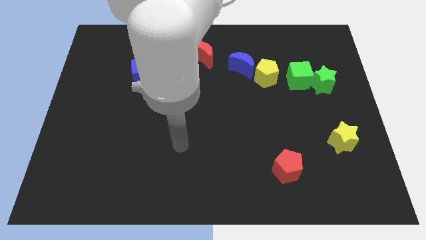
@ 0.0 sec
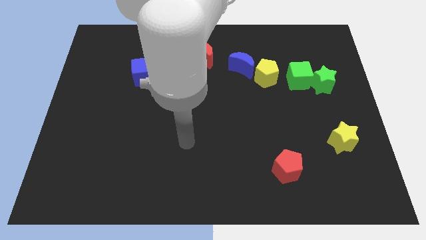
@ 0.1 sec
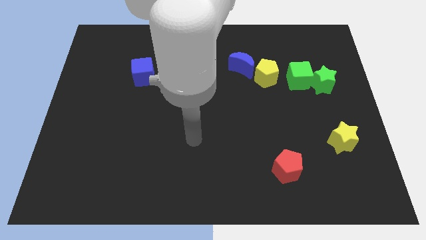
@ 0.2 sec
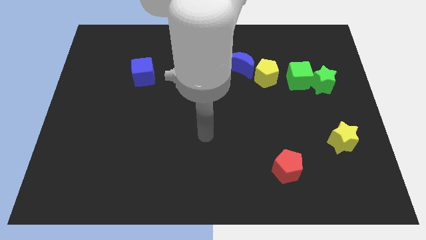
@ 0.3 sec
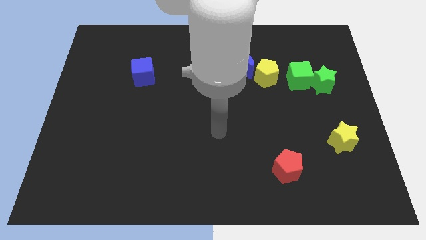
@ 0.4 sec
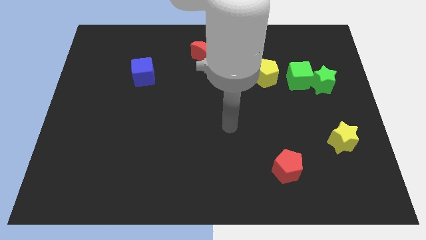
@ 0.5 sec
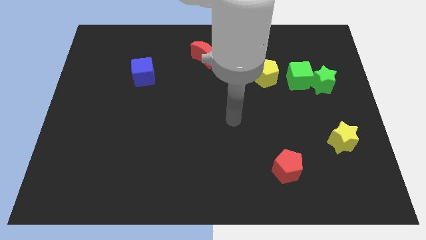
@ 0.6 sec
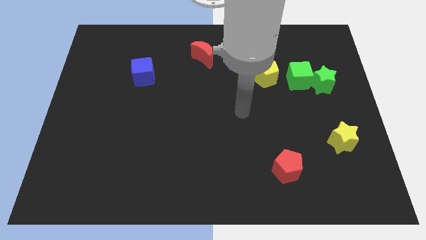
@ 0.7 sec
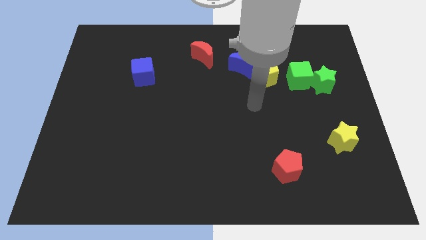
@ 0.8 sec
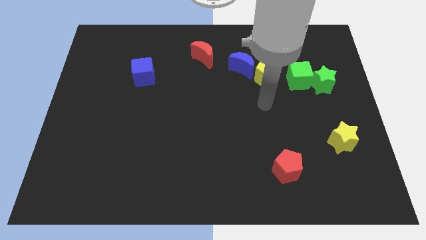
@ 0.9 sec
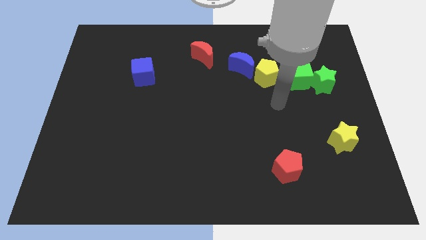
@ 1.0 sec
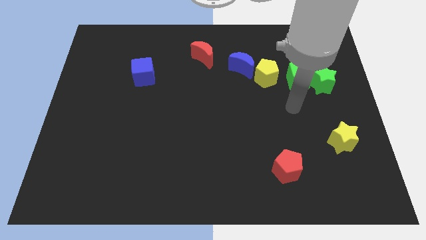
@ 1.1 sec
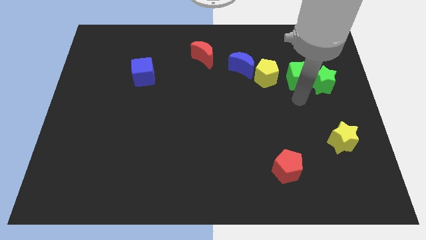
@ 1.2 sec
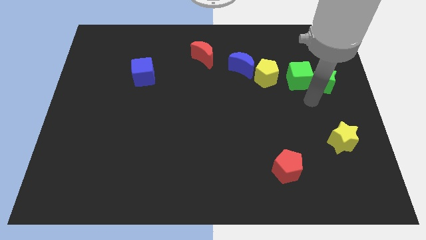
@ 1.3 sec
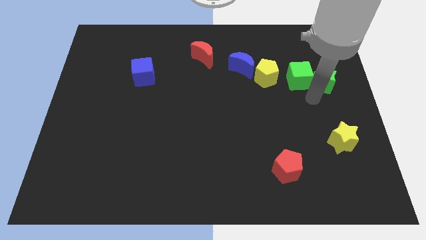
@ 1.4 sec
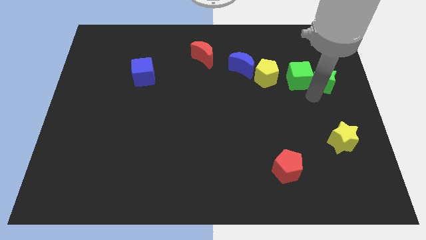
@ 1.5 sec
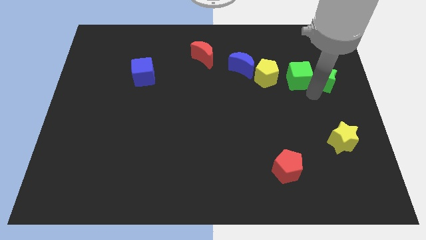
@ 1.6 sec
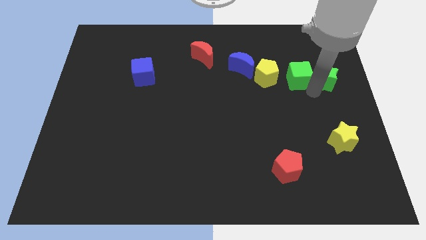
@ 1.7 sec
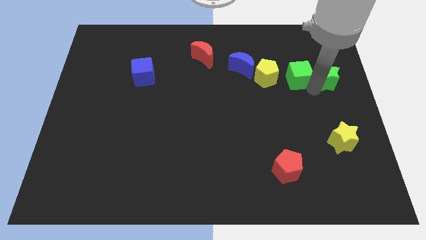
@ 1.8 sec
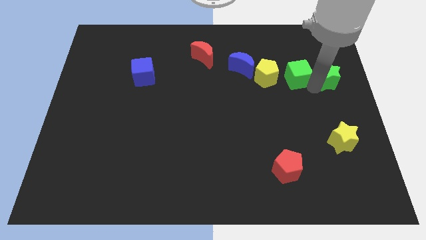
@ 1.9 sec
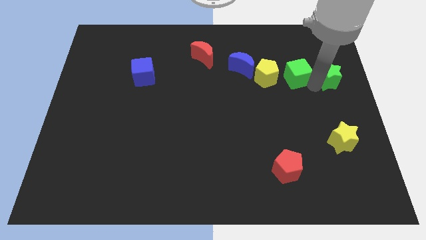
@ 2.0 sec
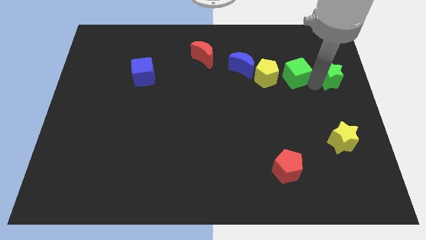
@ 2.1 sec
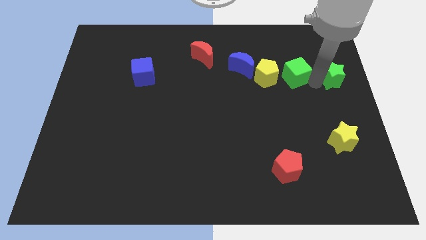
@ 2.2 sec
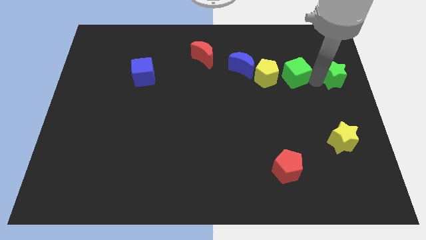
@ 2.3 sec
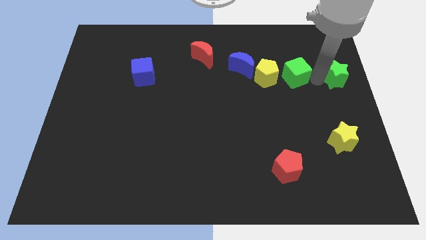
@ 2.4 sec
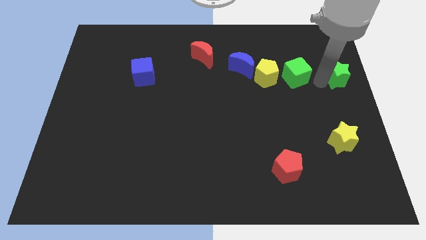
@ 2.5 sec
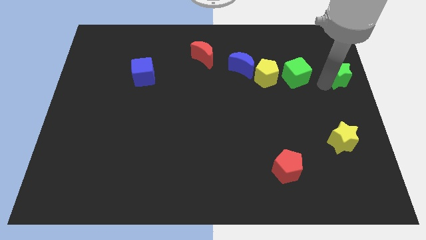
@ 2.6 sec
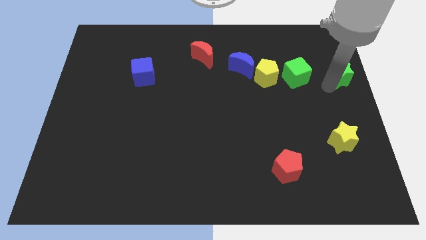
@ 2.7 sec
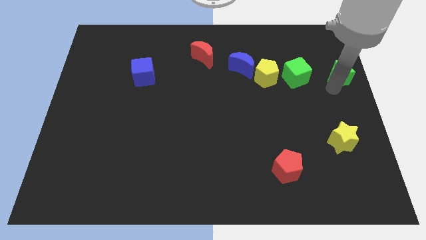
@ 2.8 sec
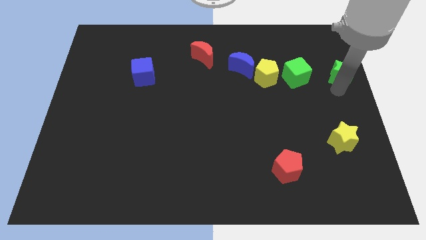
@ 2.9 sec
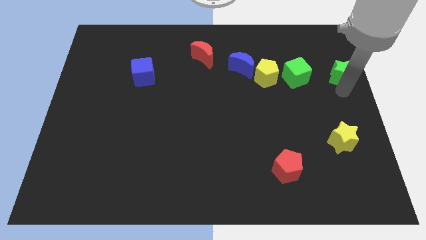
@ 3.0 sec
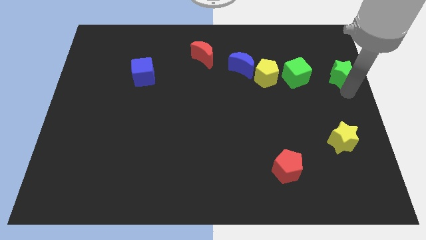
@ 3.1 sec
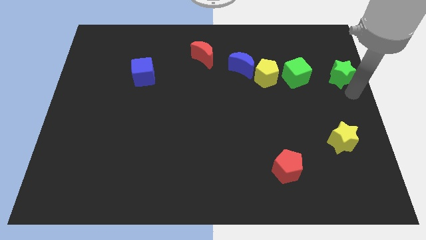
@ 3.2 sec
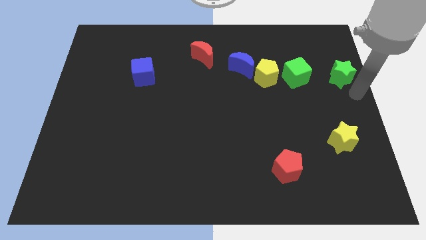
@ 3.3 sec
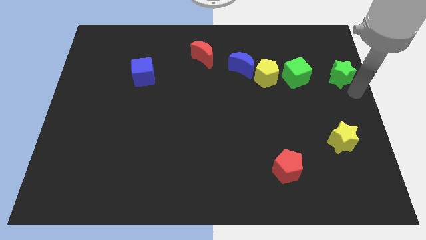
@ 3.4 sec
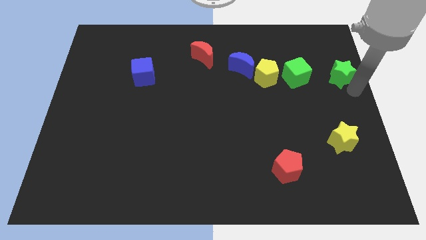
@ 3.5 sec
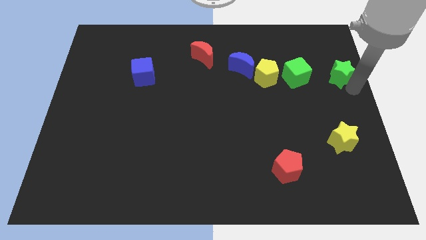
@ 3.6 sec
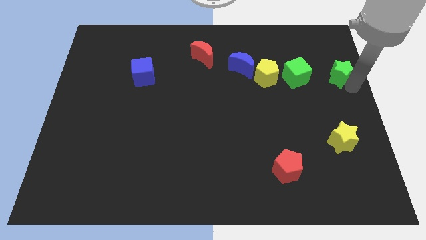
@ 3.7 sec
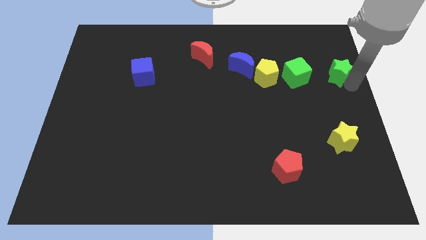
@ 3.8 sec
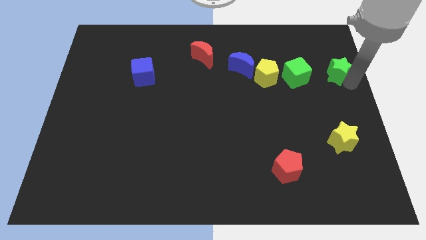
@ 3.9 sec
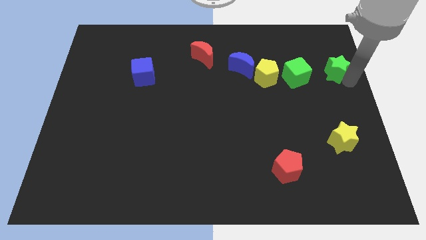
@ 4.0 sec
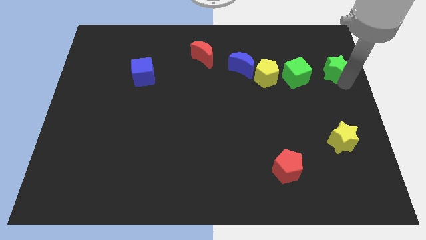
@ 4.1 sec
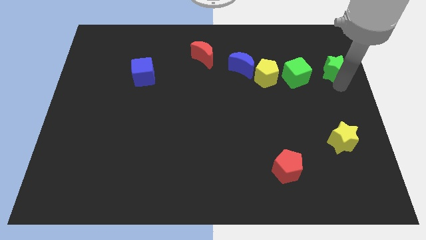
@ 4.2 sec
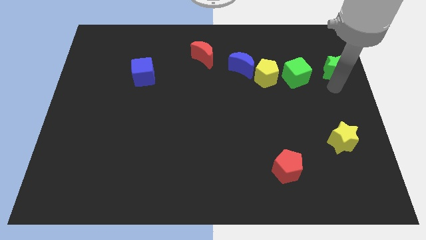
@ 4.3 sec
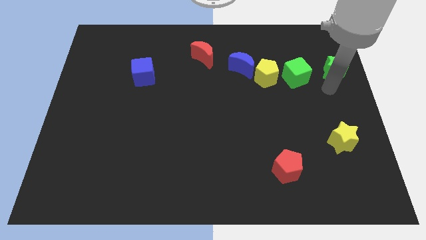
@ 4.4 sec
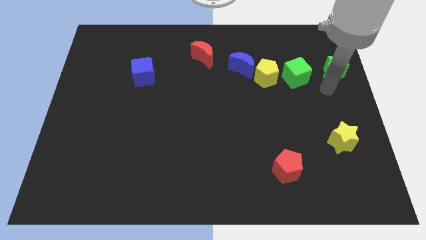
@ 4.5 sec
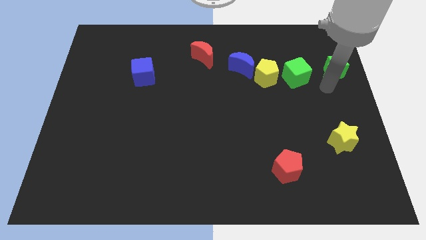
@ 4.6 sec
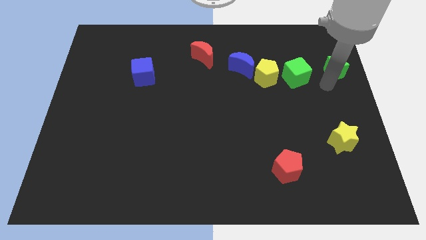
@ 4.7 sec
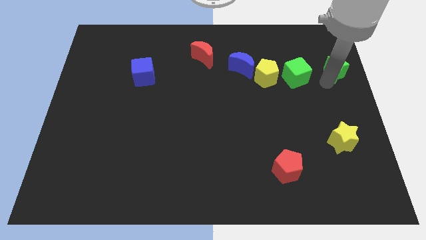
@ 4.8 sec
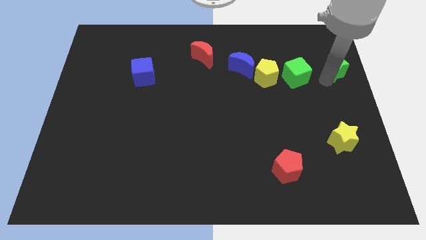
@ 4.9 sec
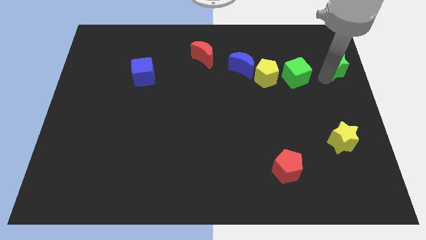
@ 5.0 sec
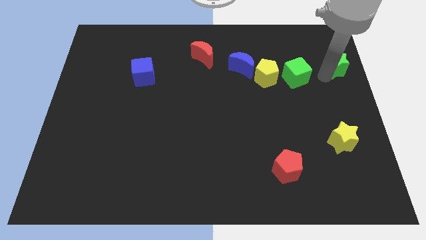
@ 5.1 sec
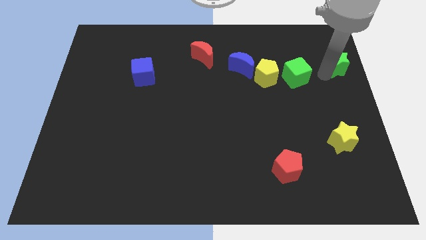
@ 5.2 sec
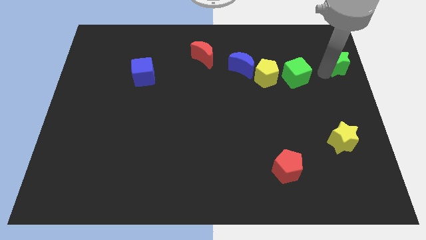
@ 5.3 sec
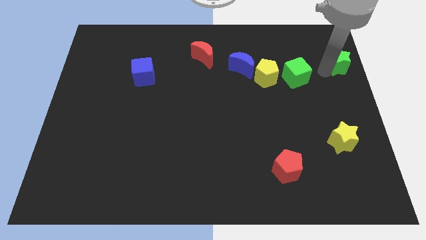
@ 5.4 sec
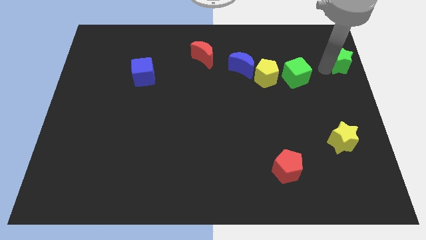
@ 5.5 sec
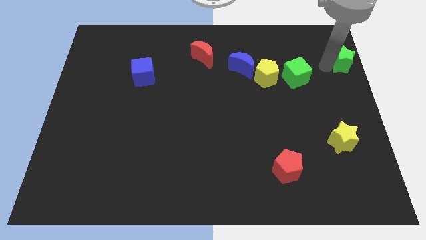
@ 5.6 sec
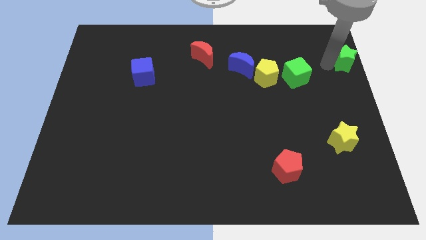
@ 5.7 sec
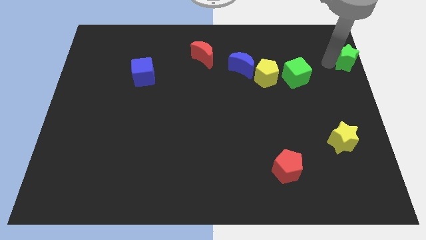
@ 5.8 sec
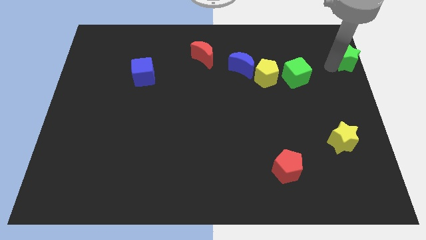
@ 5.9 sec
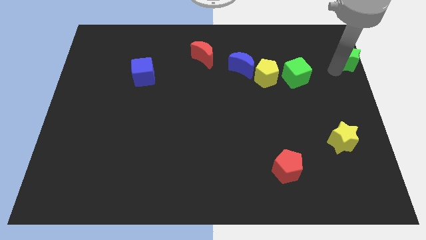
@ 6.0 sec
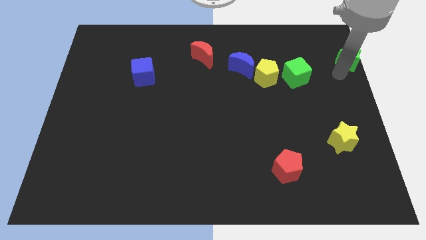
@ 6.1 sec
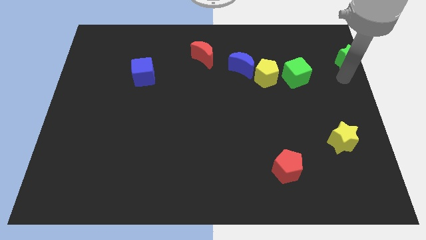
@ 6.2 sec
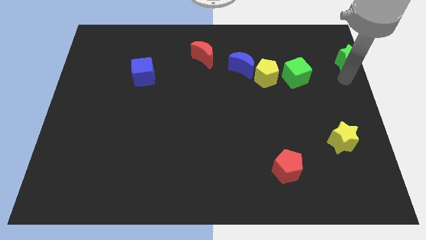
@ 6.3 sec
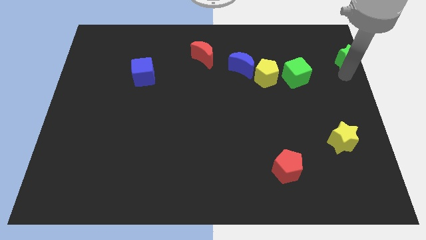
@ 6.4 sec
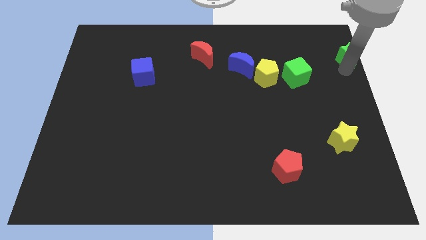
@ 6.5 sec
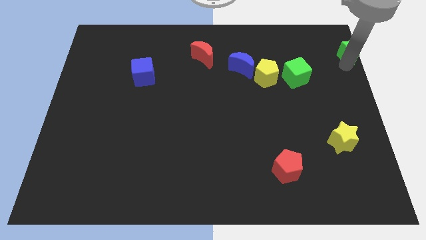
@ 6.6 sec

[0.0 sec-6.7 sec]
move the green star to the top right corner
